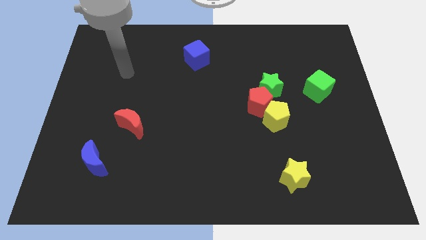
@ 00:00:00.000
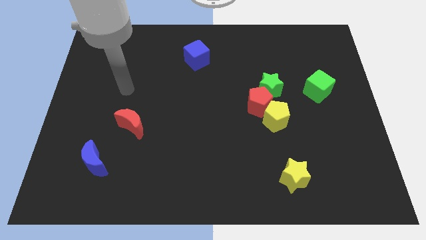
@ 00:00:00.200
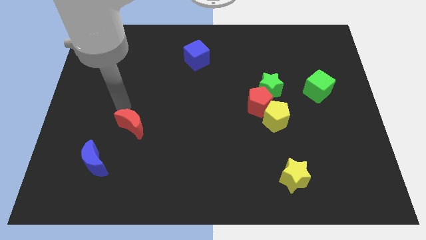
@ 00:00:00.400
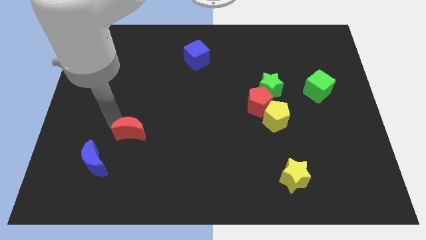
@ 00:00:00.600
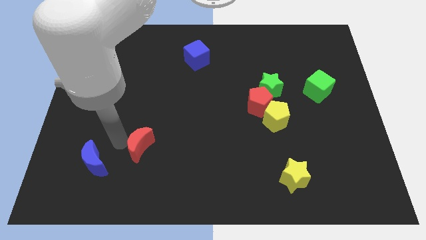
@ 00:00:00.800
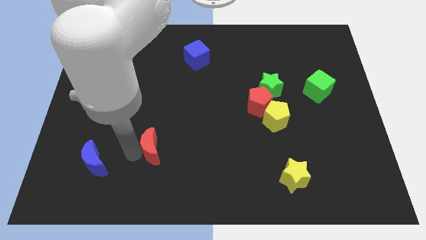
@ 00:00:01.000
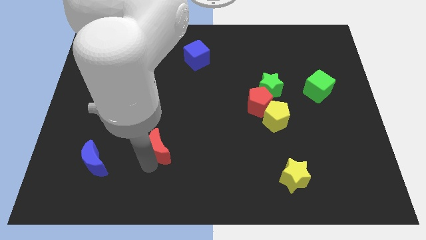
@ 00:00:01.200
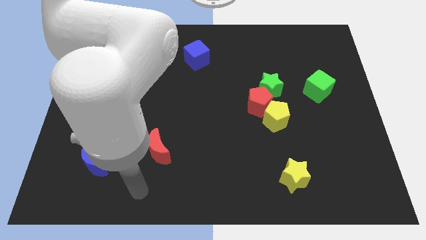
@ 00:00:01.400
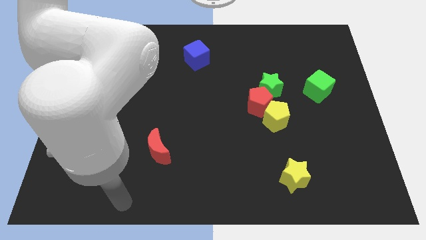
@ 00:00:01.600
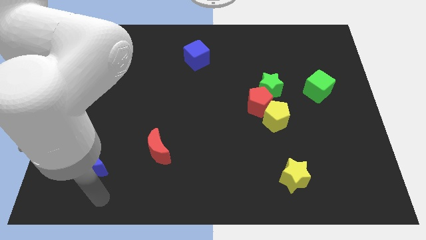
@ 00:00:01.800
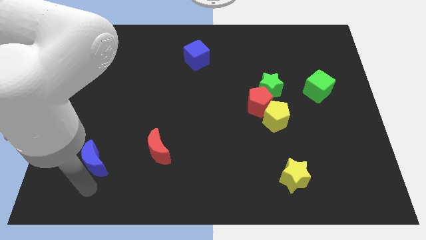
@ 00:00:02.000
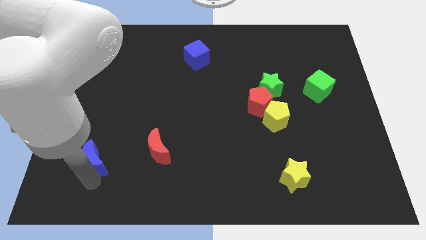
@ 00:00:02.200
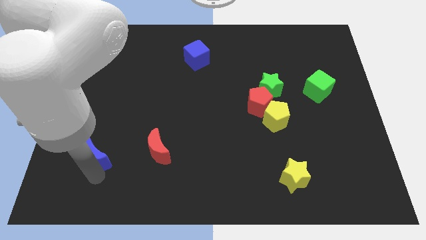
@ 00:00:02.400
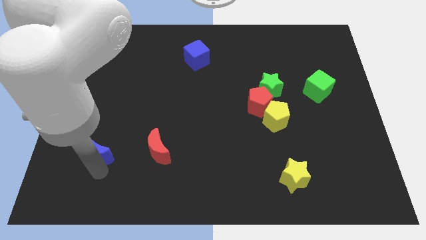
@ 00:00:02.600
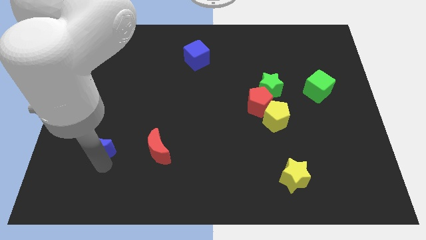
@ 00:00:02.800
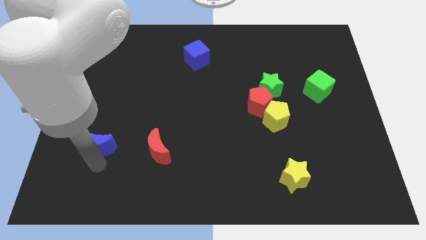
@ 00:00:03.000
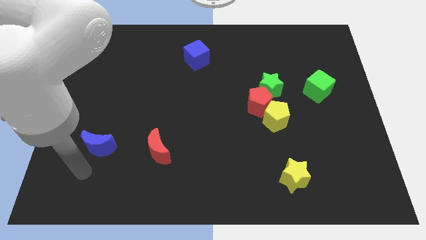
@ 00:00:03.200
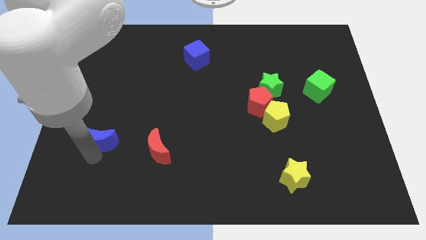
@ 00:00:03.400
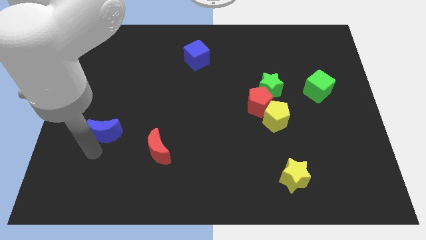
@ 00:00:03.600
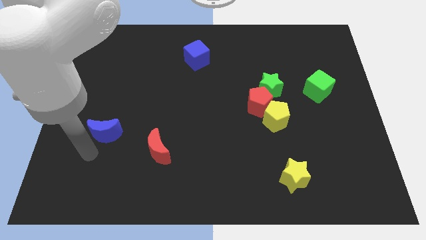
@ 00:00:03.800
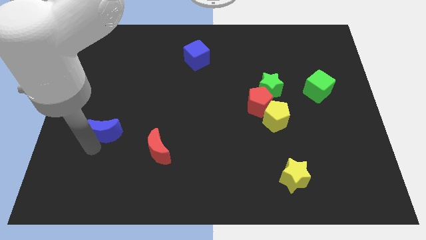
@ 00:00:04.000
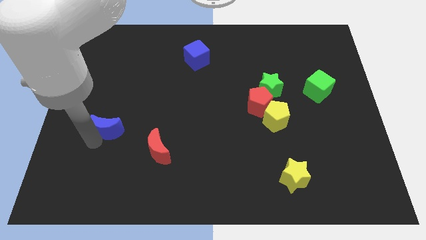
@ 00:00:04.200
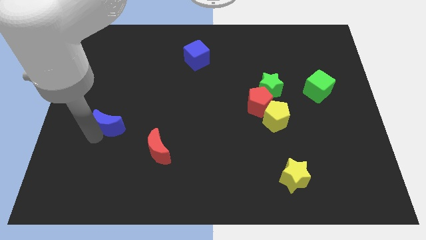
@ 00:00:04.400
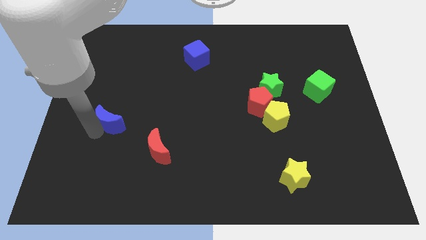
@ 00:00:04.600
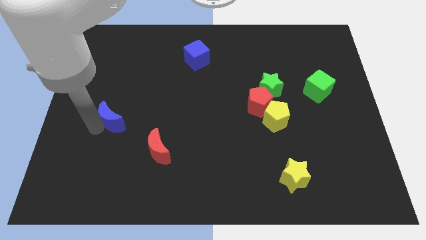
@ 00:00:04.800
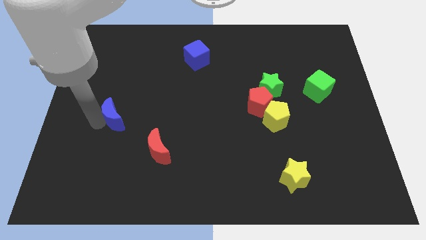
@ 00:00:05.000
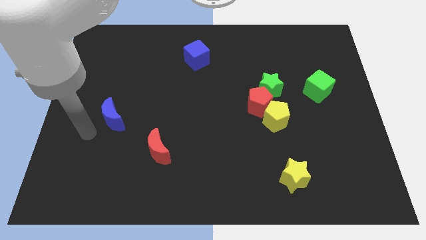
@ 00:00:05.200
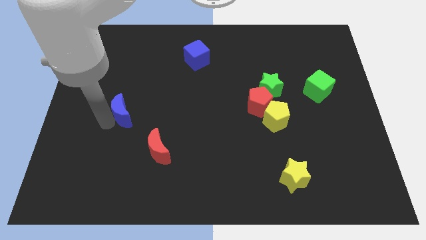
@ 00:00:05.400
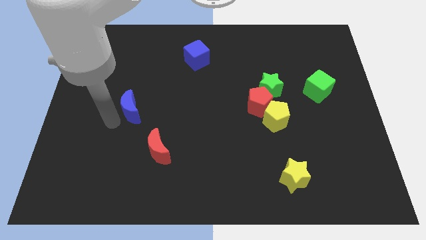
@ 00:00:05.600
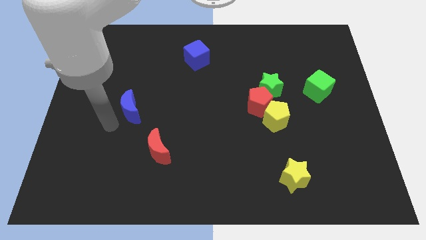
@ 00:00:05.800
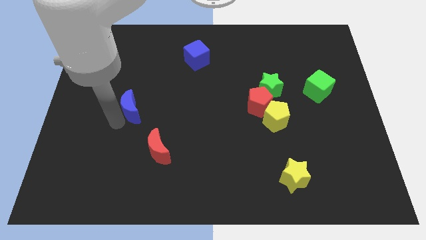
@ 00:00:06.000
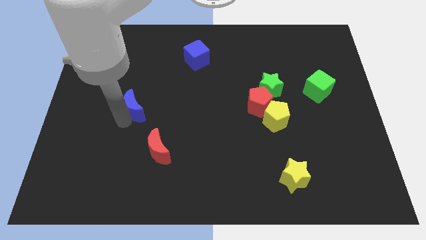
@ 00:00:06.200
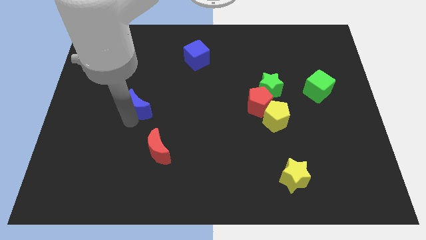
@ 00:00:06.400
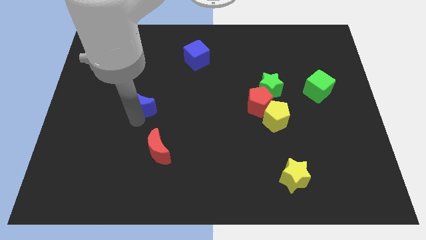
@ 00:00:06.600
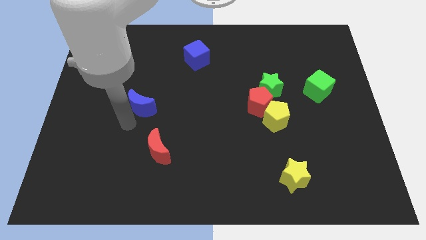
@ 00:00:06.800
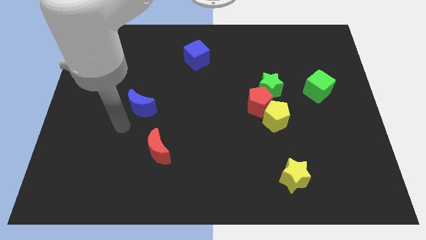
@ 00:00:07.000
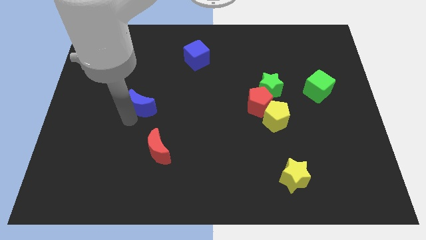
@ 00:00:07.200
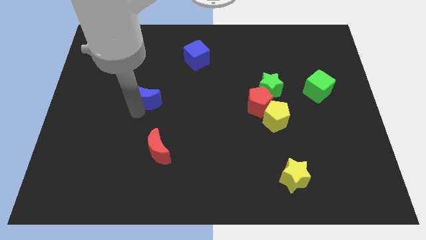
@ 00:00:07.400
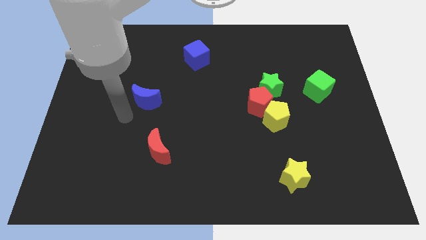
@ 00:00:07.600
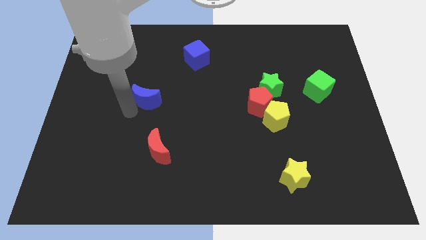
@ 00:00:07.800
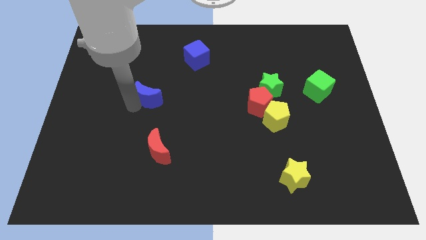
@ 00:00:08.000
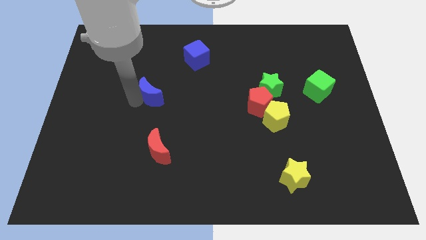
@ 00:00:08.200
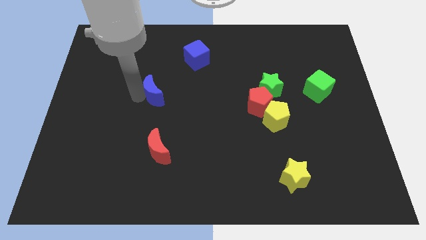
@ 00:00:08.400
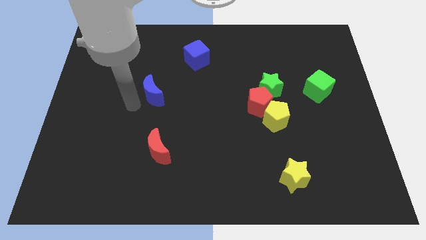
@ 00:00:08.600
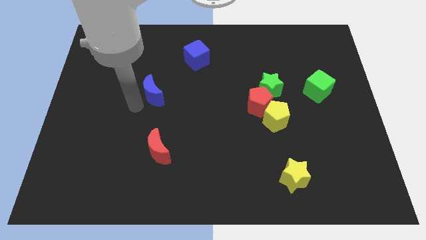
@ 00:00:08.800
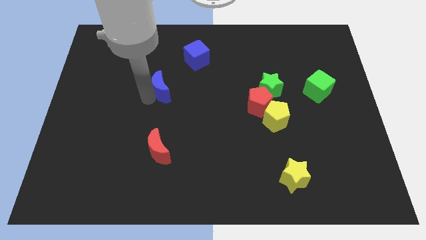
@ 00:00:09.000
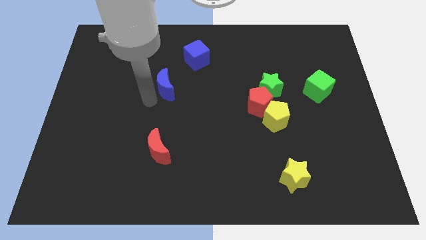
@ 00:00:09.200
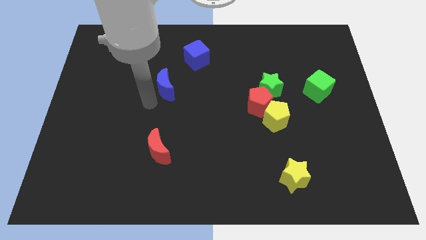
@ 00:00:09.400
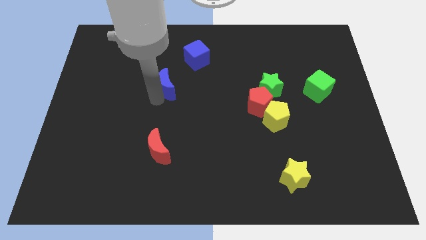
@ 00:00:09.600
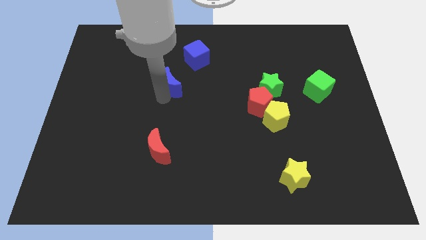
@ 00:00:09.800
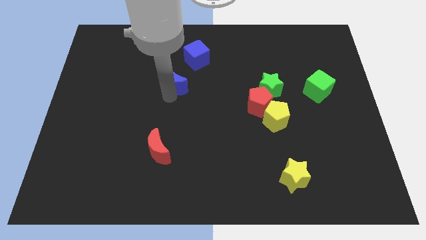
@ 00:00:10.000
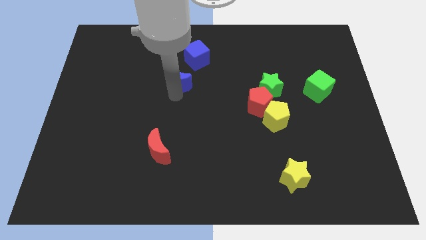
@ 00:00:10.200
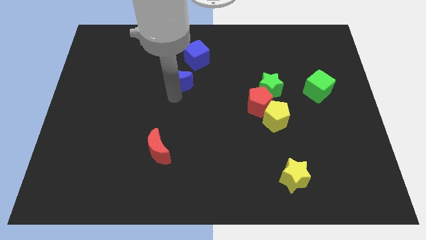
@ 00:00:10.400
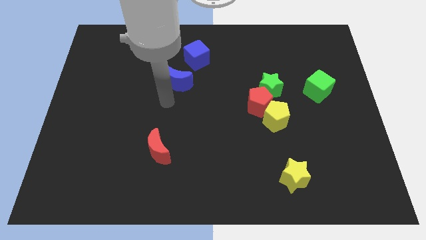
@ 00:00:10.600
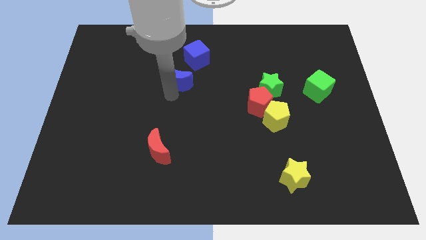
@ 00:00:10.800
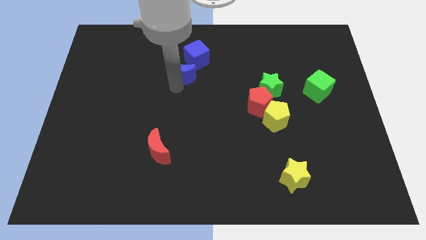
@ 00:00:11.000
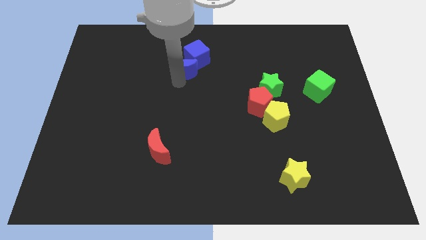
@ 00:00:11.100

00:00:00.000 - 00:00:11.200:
put the blue moon next to the blue cube

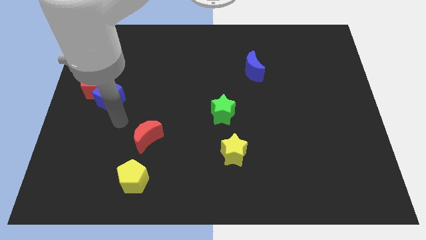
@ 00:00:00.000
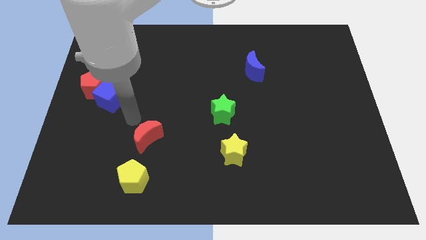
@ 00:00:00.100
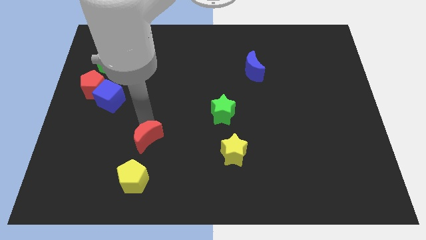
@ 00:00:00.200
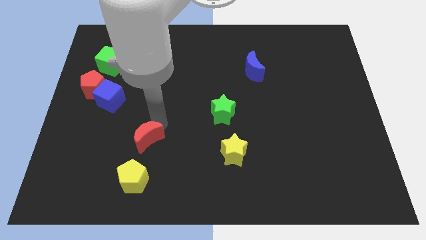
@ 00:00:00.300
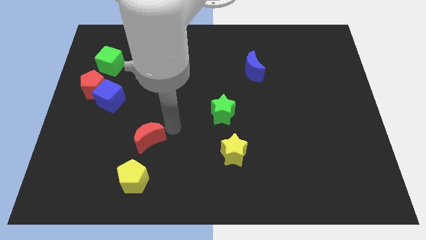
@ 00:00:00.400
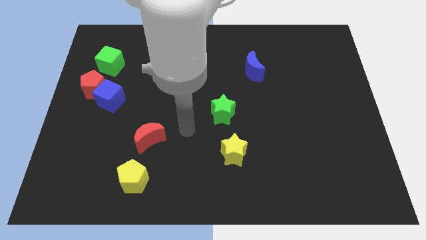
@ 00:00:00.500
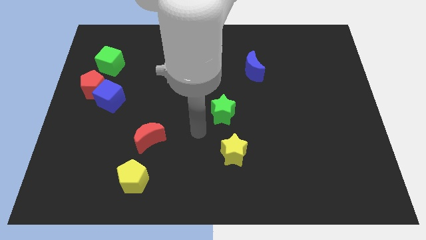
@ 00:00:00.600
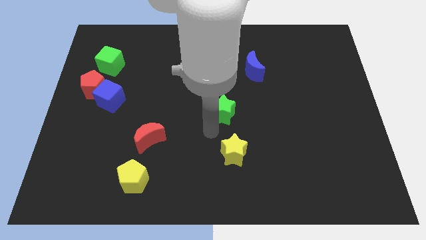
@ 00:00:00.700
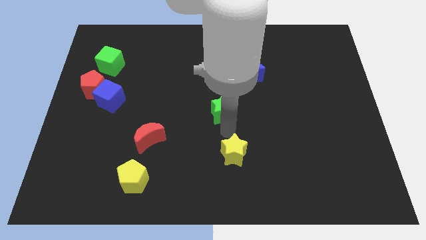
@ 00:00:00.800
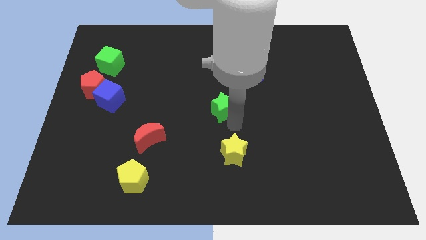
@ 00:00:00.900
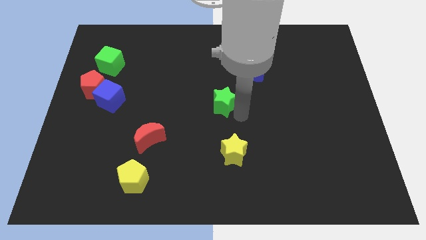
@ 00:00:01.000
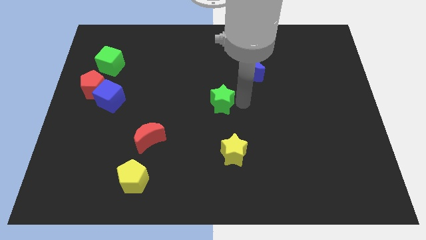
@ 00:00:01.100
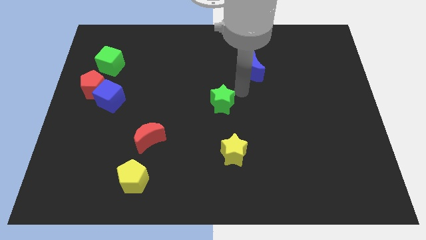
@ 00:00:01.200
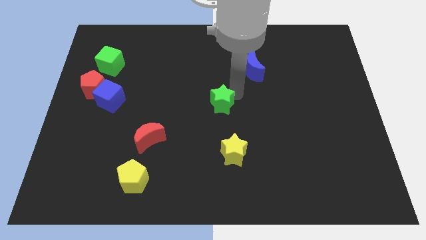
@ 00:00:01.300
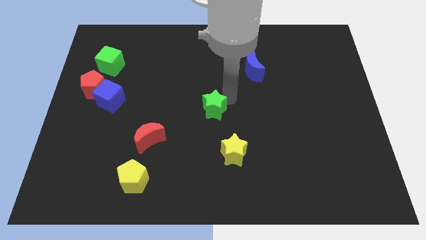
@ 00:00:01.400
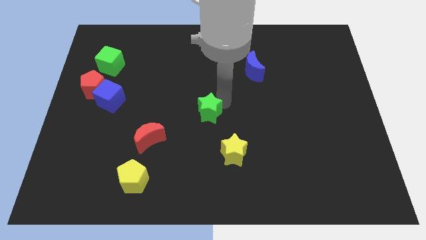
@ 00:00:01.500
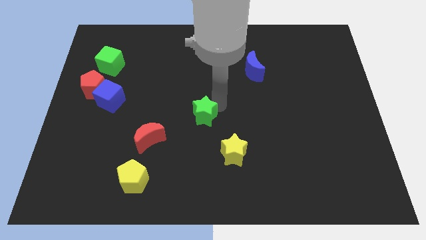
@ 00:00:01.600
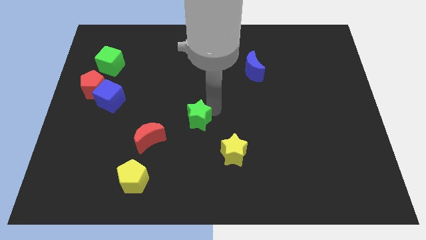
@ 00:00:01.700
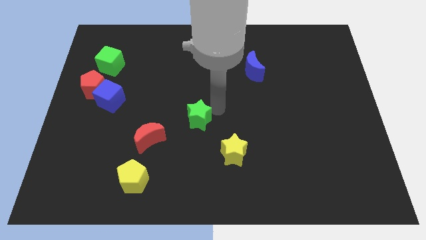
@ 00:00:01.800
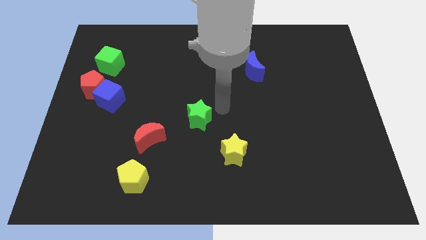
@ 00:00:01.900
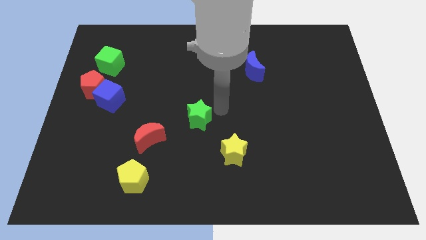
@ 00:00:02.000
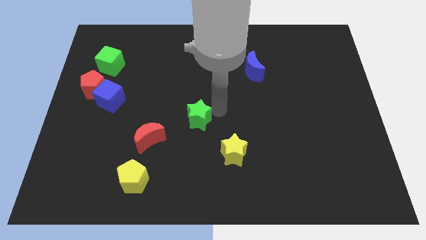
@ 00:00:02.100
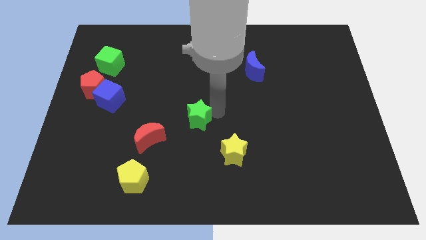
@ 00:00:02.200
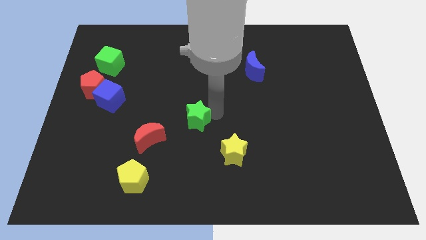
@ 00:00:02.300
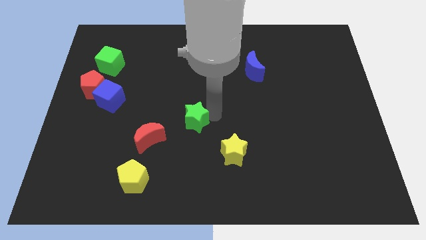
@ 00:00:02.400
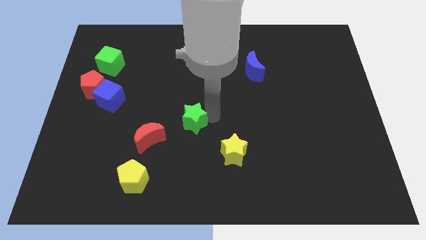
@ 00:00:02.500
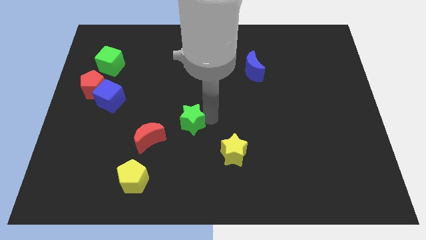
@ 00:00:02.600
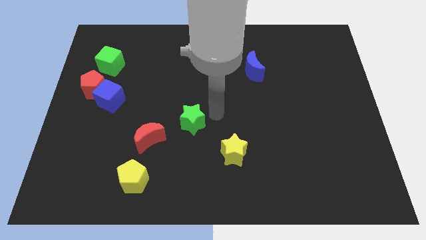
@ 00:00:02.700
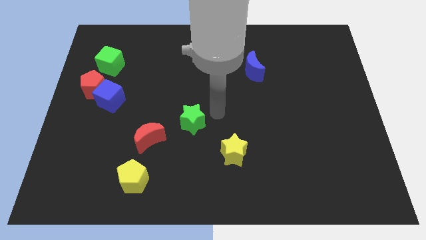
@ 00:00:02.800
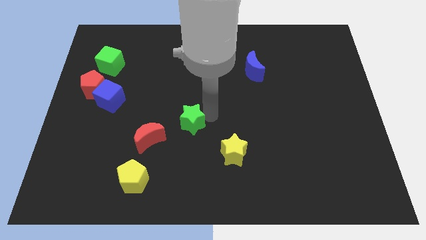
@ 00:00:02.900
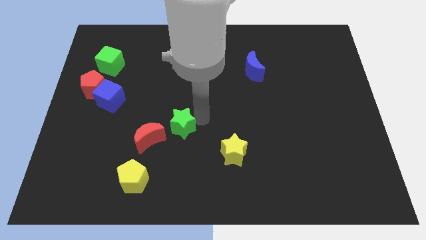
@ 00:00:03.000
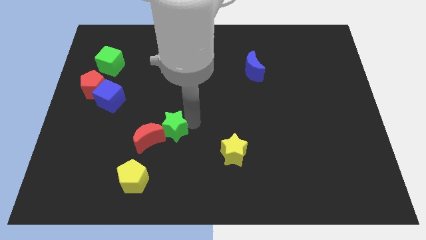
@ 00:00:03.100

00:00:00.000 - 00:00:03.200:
slide the green star towards the red moon
